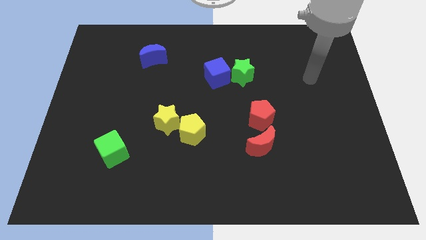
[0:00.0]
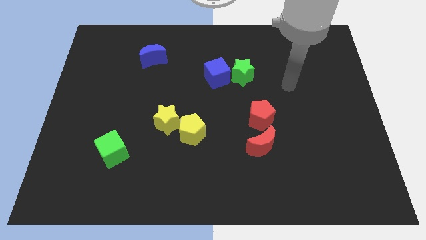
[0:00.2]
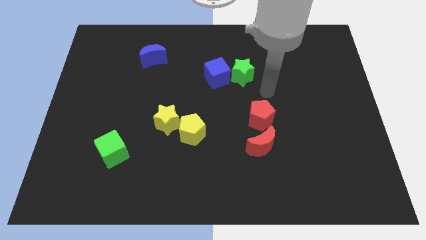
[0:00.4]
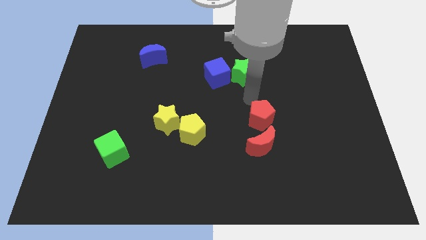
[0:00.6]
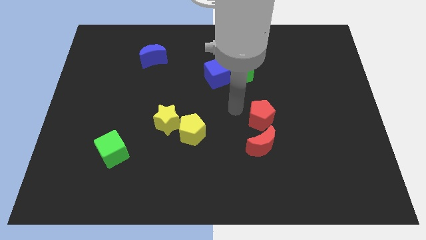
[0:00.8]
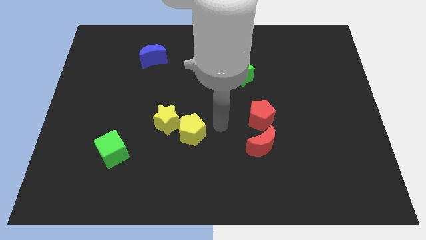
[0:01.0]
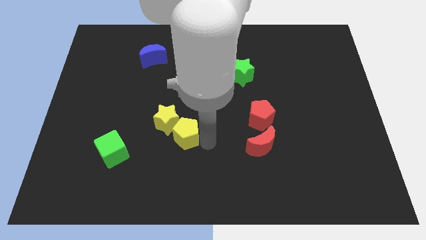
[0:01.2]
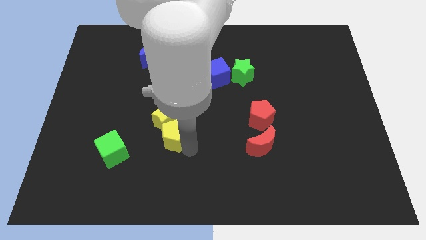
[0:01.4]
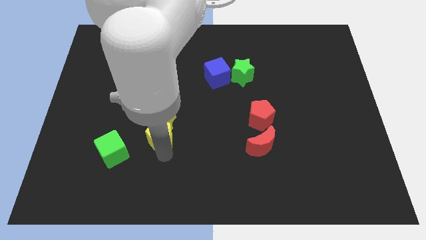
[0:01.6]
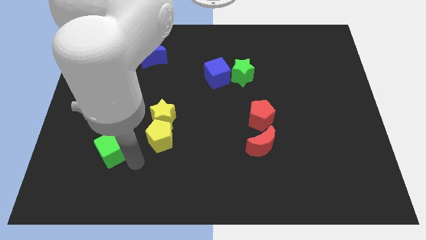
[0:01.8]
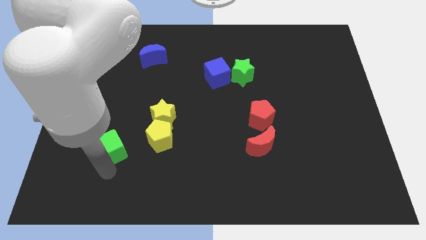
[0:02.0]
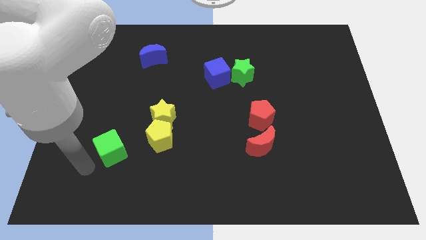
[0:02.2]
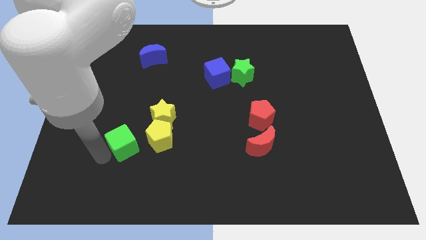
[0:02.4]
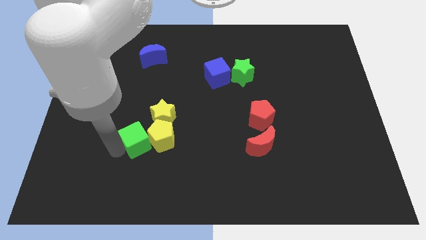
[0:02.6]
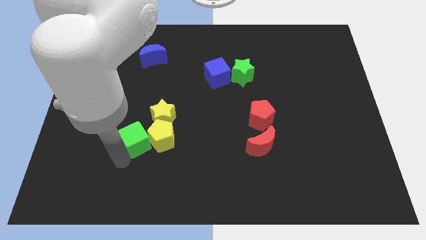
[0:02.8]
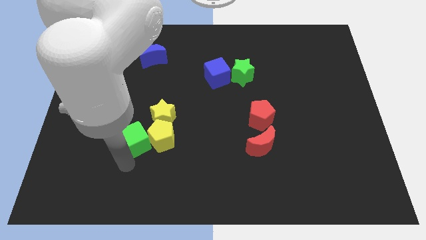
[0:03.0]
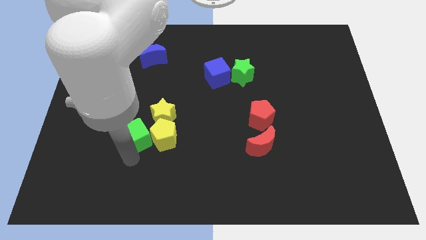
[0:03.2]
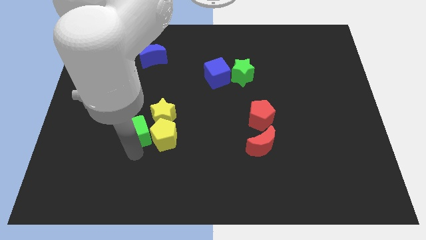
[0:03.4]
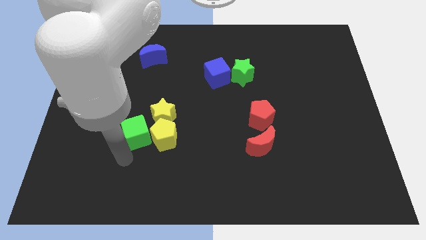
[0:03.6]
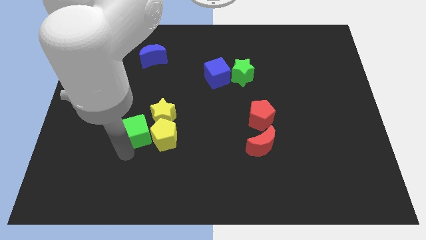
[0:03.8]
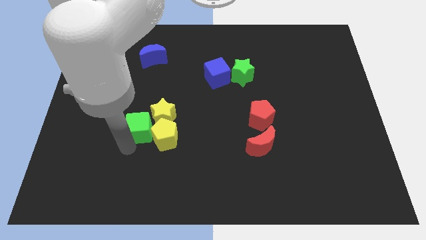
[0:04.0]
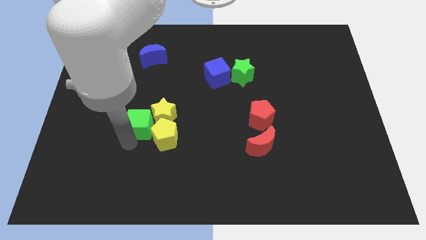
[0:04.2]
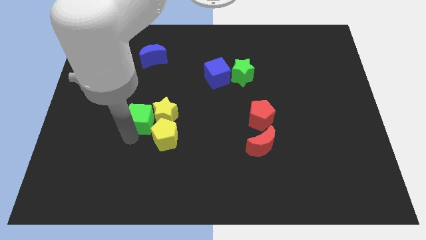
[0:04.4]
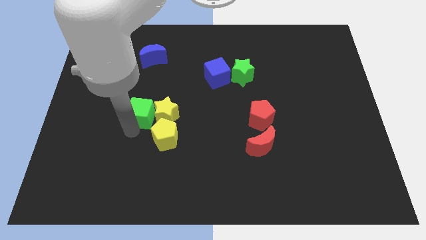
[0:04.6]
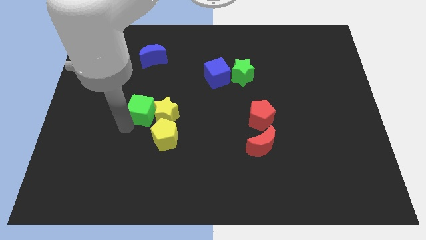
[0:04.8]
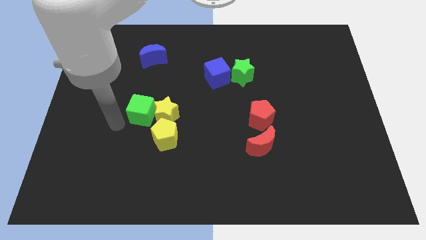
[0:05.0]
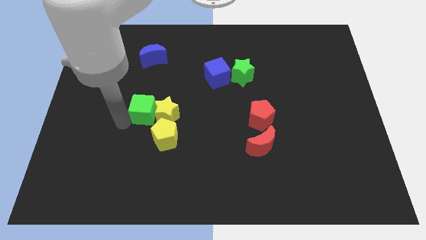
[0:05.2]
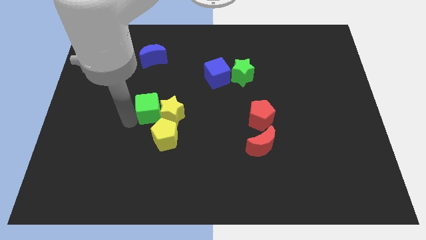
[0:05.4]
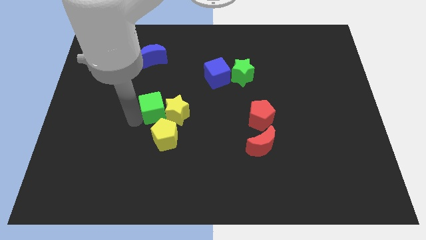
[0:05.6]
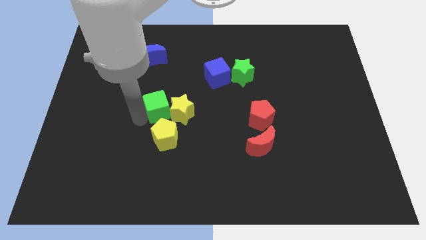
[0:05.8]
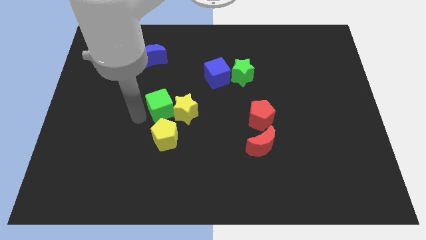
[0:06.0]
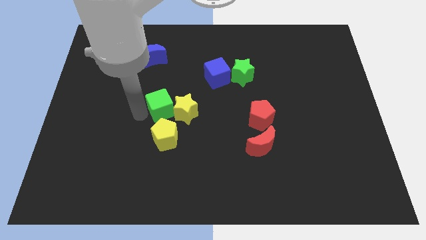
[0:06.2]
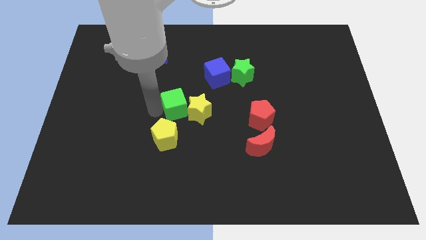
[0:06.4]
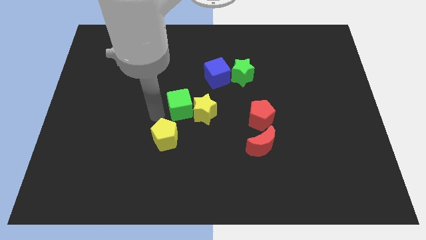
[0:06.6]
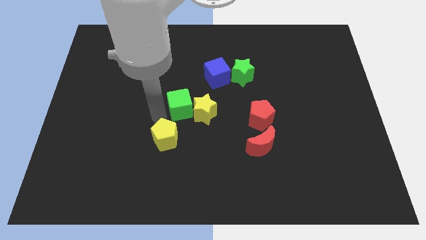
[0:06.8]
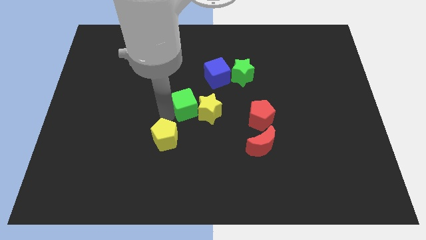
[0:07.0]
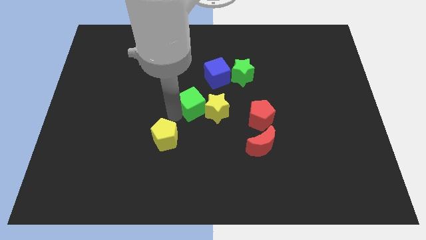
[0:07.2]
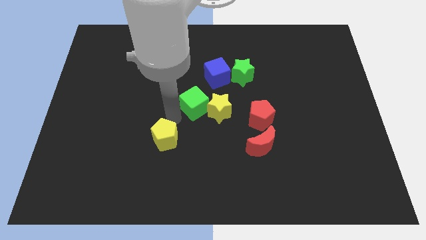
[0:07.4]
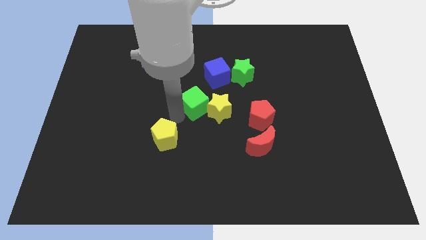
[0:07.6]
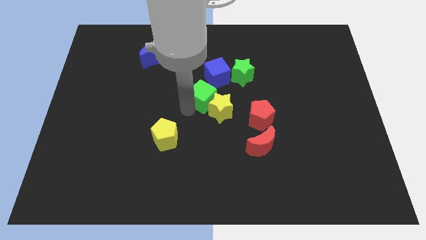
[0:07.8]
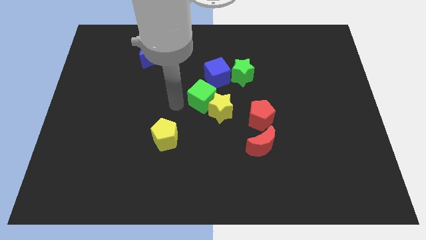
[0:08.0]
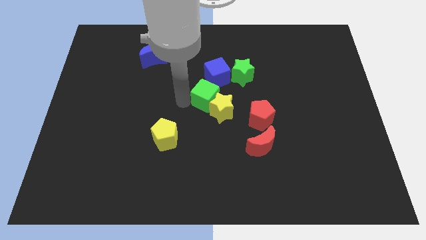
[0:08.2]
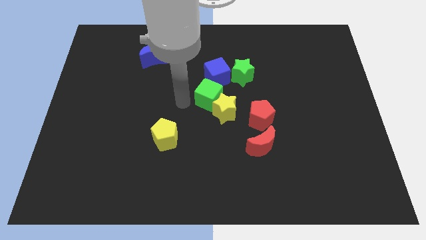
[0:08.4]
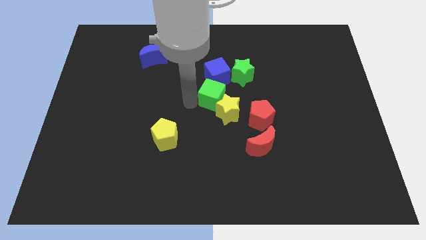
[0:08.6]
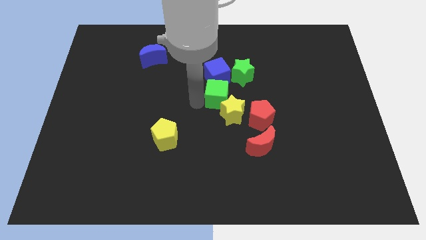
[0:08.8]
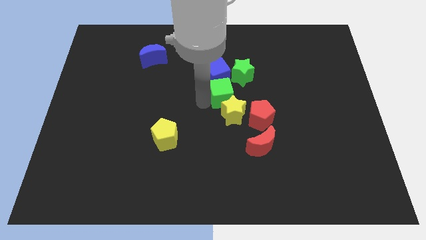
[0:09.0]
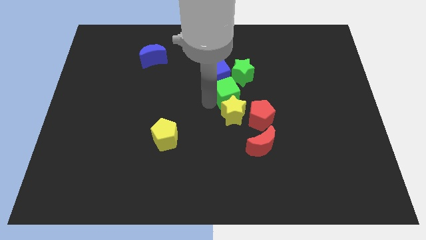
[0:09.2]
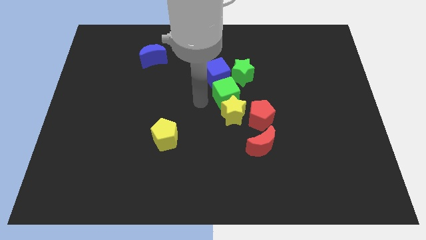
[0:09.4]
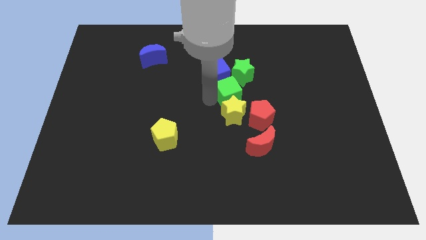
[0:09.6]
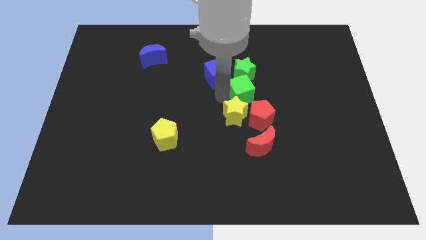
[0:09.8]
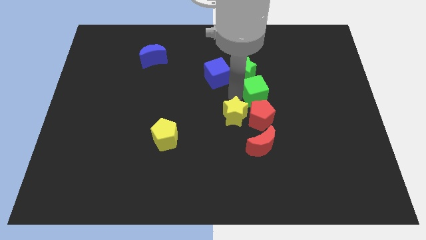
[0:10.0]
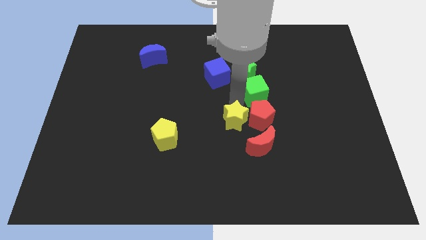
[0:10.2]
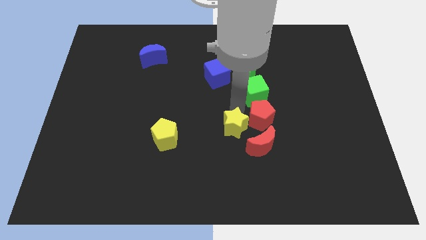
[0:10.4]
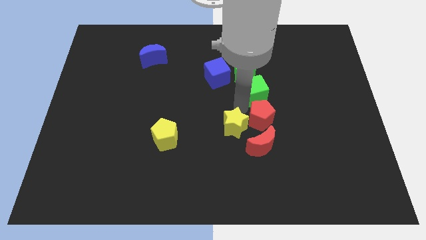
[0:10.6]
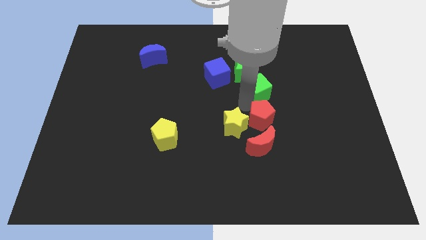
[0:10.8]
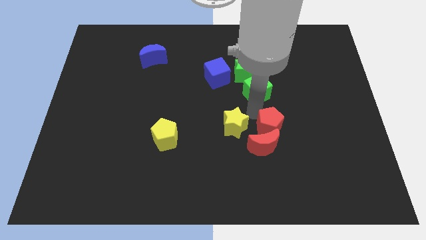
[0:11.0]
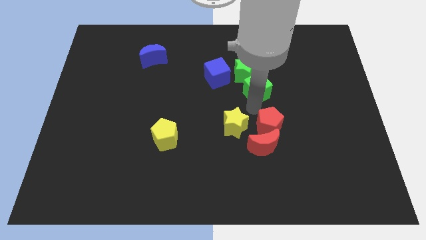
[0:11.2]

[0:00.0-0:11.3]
push the green cube to the right of the blue cube

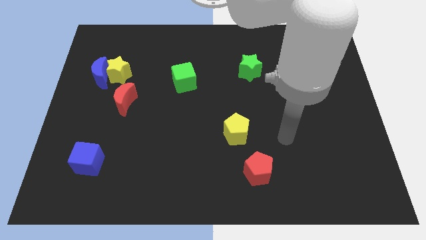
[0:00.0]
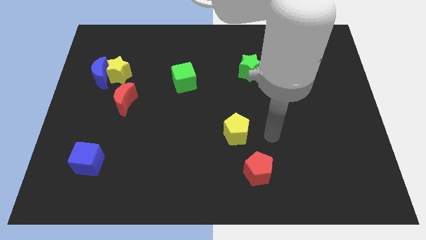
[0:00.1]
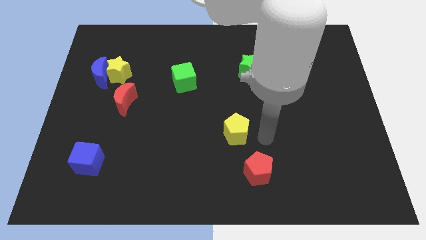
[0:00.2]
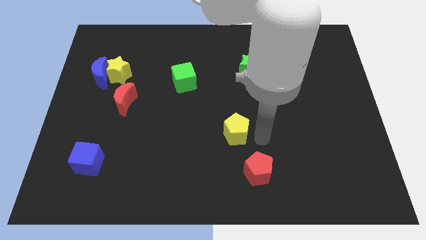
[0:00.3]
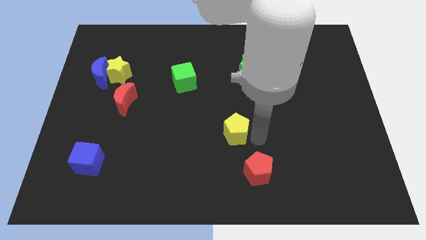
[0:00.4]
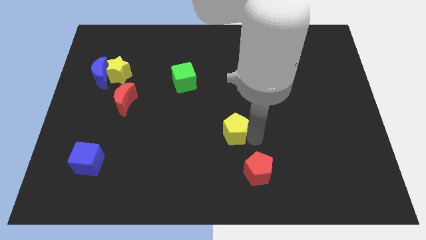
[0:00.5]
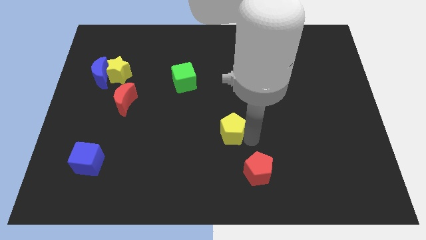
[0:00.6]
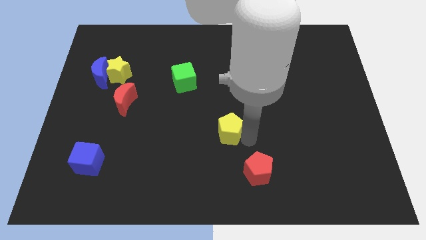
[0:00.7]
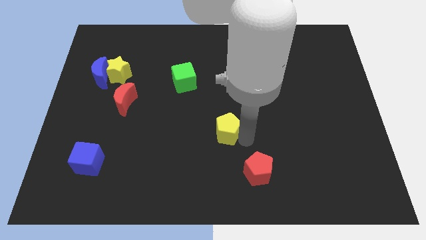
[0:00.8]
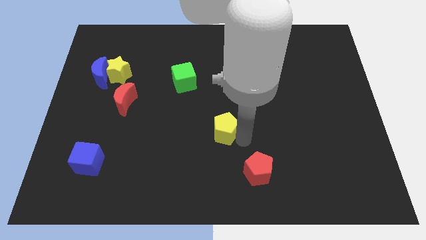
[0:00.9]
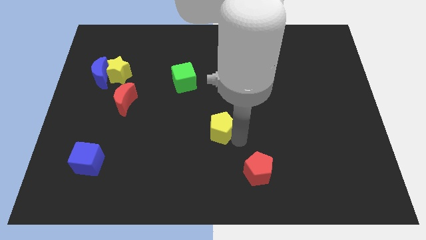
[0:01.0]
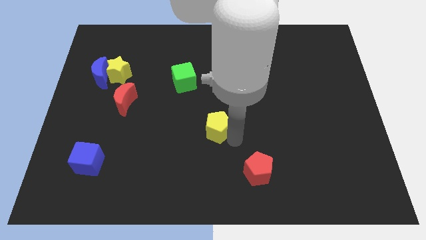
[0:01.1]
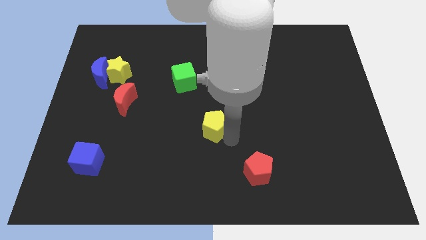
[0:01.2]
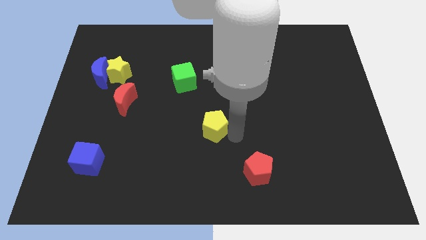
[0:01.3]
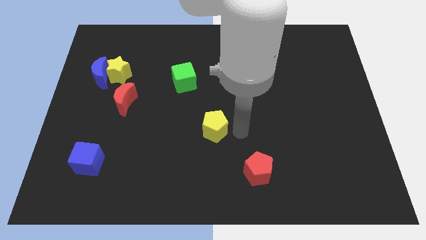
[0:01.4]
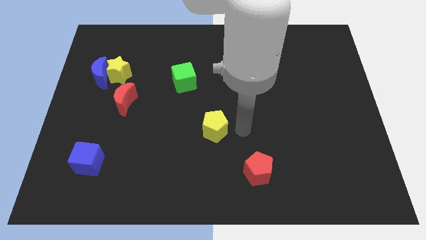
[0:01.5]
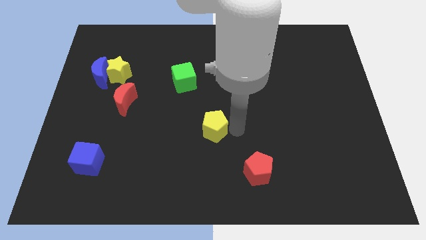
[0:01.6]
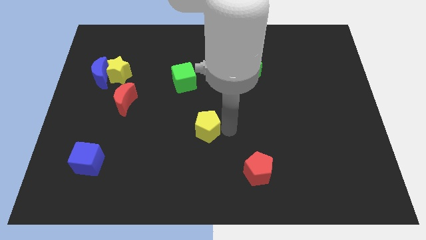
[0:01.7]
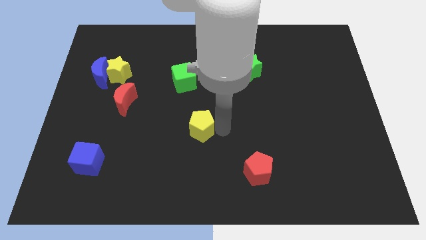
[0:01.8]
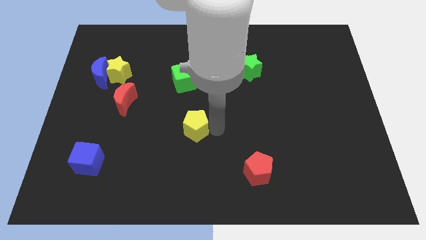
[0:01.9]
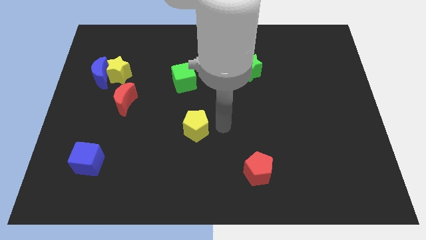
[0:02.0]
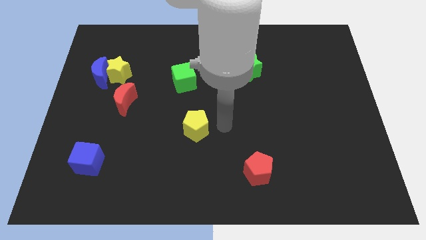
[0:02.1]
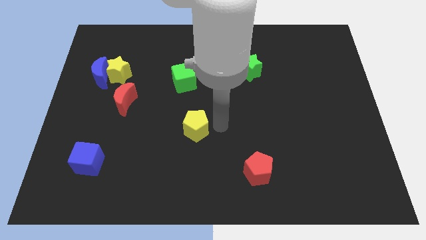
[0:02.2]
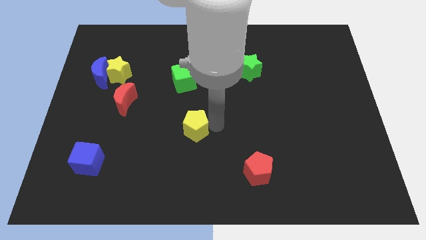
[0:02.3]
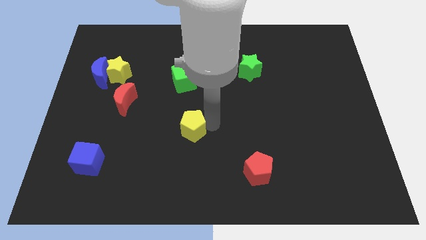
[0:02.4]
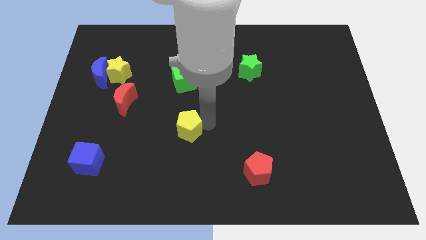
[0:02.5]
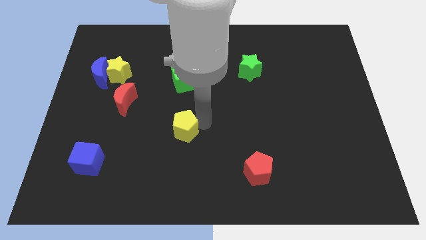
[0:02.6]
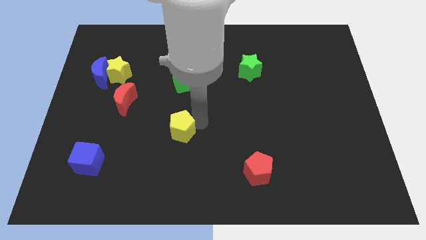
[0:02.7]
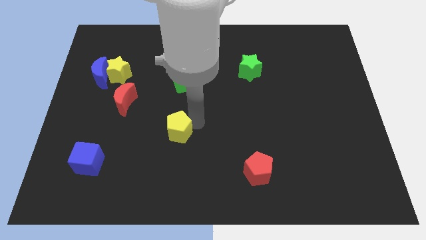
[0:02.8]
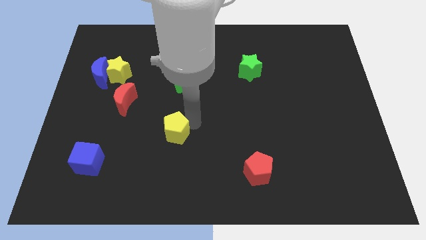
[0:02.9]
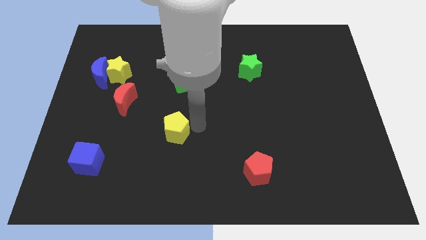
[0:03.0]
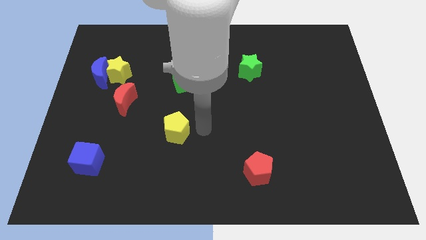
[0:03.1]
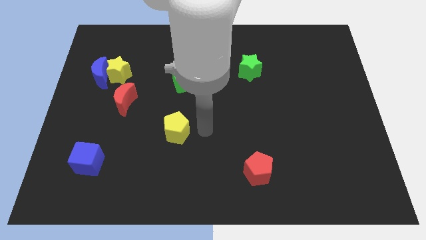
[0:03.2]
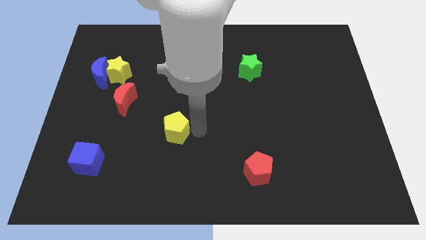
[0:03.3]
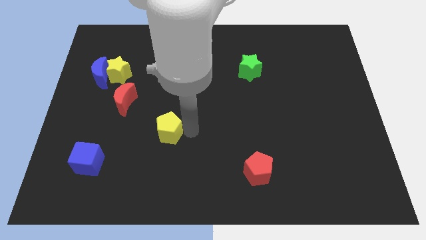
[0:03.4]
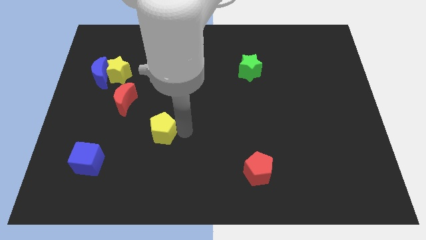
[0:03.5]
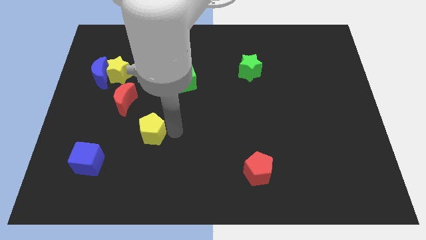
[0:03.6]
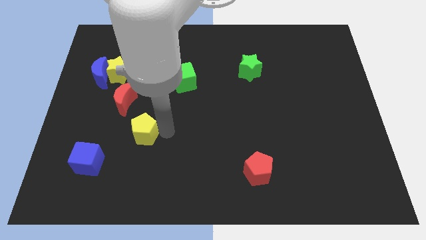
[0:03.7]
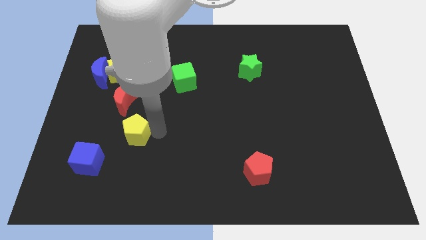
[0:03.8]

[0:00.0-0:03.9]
slide the yellow pentagon to the bottom of the red moon
